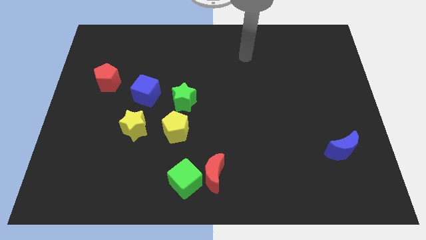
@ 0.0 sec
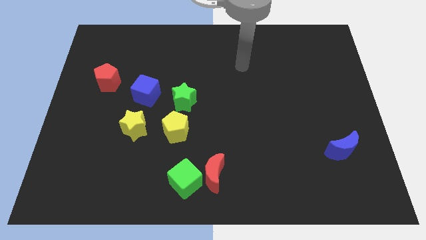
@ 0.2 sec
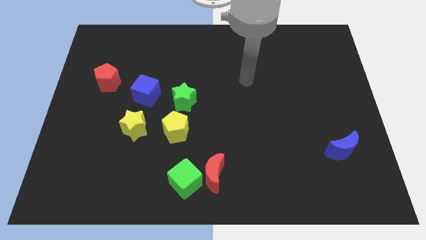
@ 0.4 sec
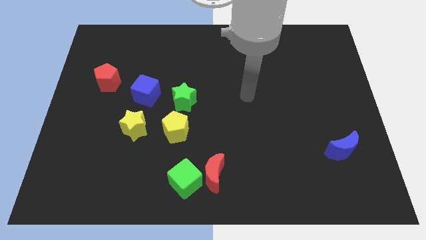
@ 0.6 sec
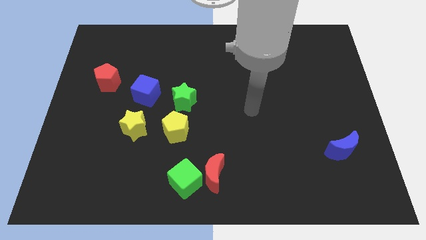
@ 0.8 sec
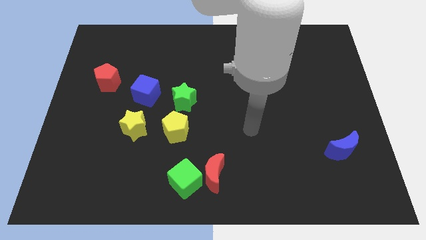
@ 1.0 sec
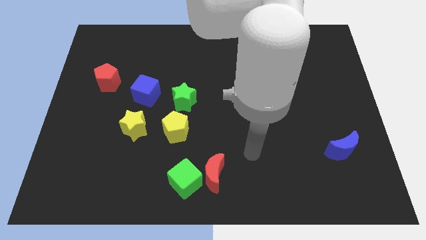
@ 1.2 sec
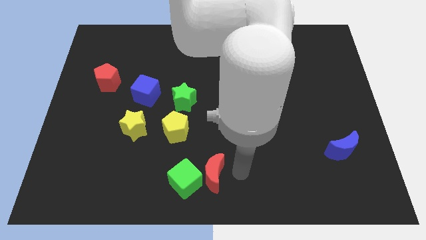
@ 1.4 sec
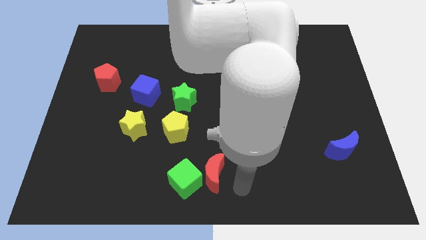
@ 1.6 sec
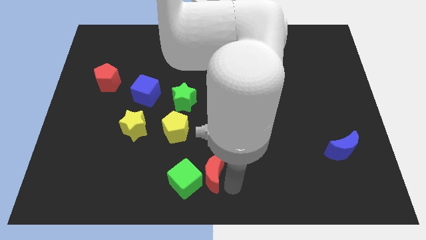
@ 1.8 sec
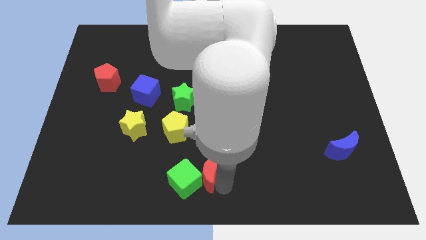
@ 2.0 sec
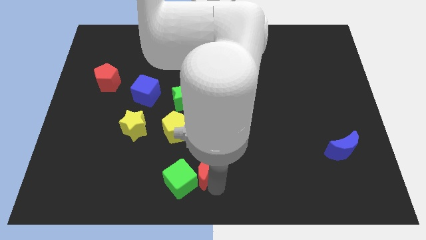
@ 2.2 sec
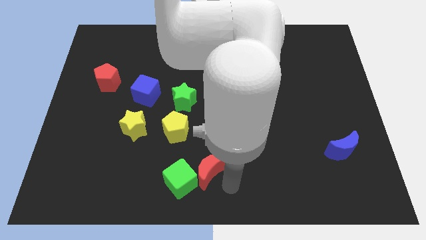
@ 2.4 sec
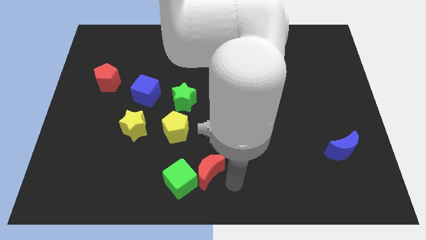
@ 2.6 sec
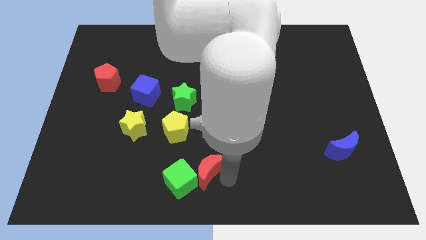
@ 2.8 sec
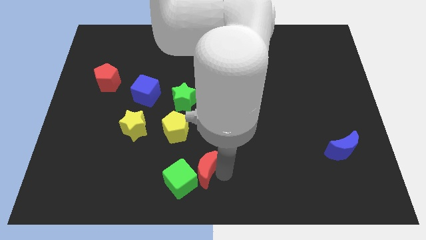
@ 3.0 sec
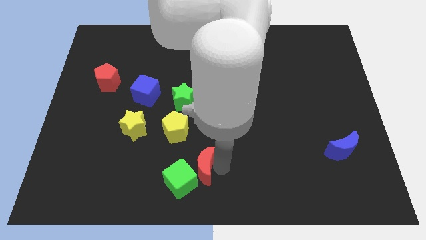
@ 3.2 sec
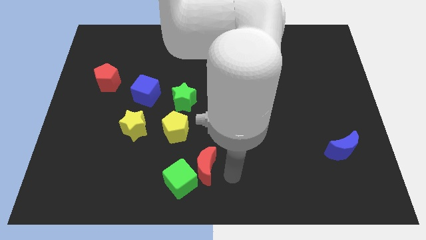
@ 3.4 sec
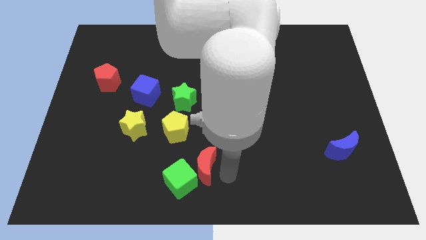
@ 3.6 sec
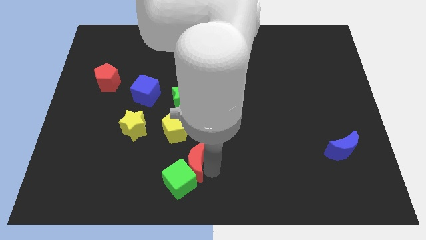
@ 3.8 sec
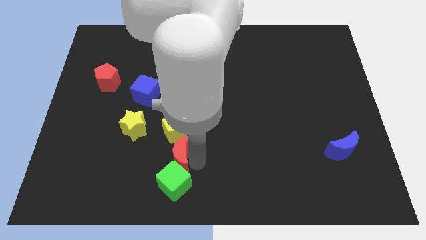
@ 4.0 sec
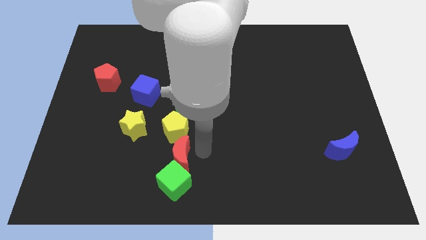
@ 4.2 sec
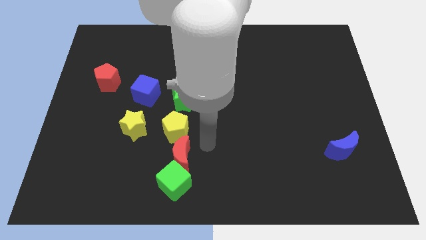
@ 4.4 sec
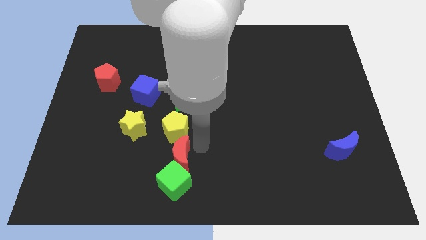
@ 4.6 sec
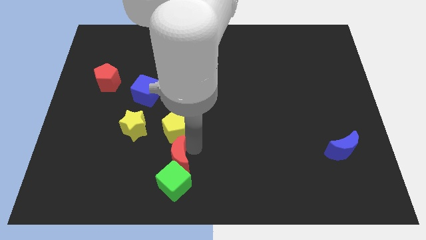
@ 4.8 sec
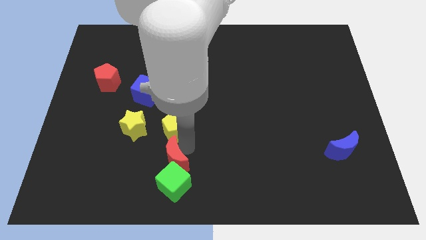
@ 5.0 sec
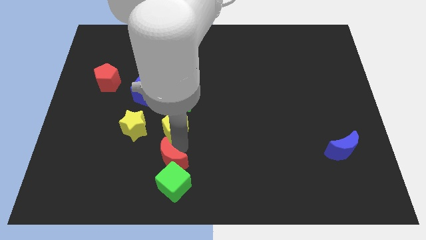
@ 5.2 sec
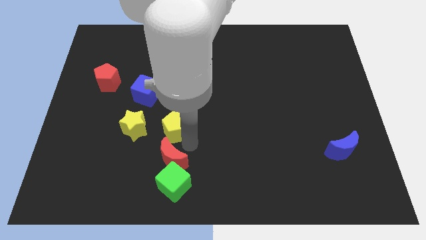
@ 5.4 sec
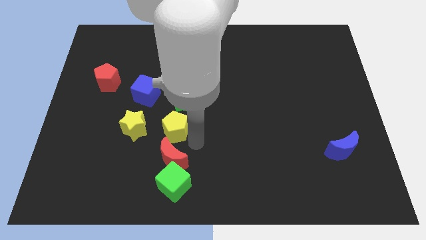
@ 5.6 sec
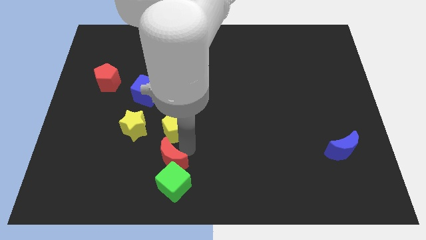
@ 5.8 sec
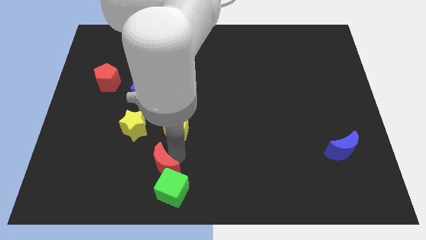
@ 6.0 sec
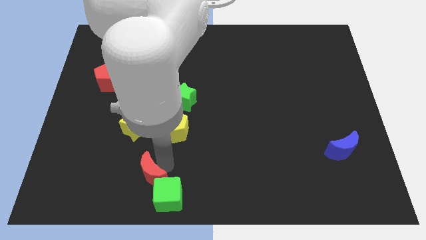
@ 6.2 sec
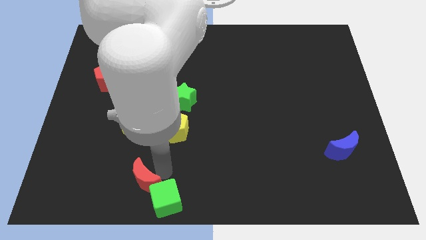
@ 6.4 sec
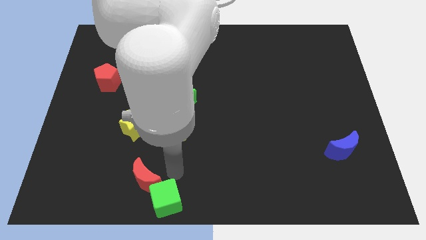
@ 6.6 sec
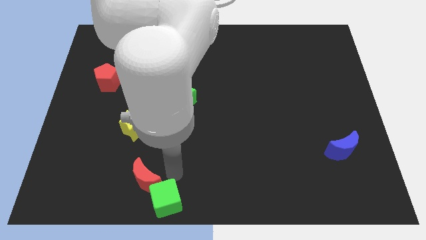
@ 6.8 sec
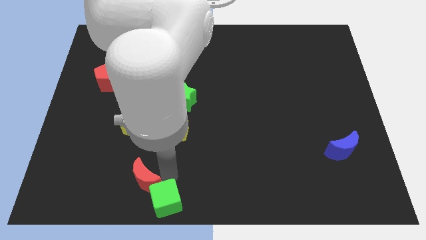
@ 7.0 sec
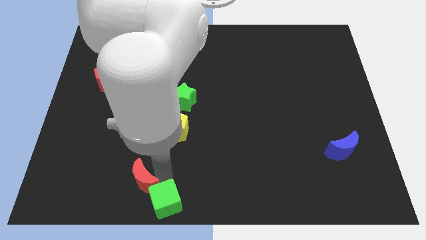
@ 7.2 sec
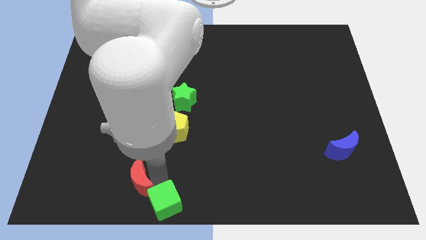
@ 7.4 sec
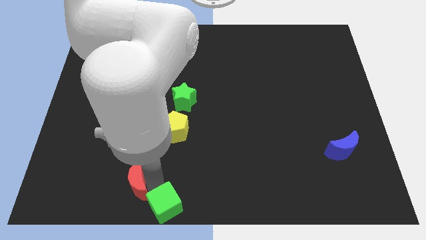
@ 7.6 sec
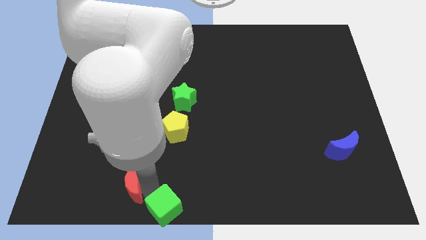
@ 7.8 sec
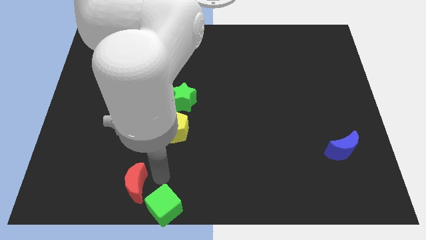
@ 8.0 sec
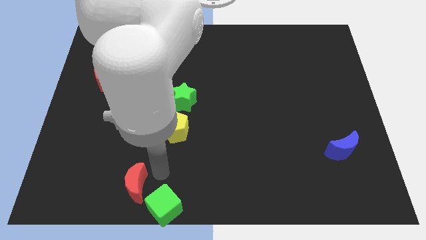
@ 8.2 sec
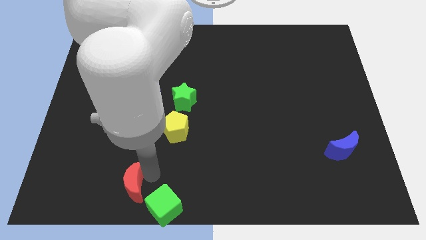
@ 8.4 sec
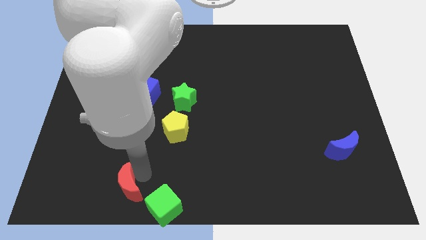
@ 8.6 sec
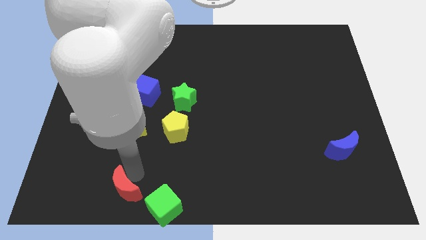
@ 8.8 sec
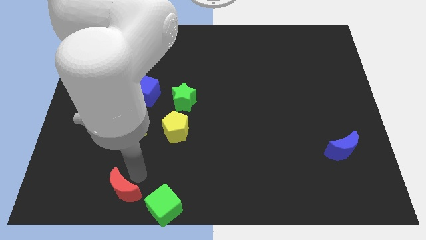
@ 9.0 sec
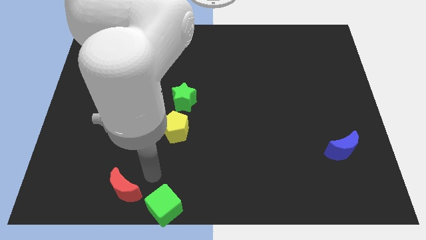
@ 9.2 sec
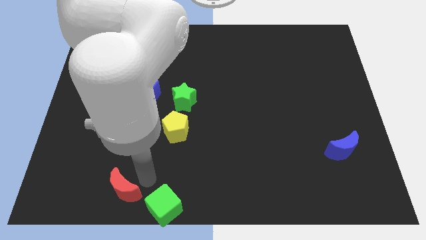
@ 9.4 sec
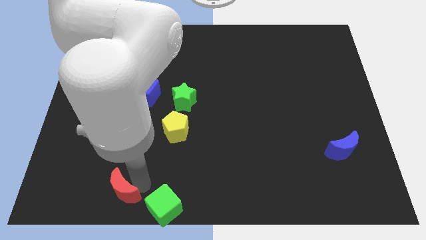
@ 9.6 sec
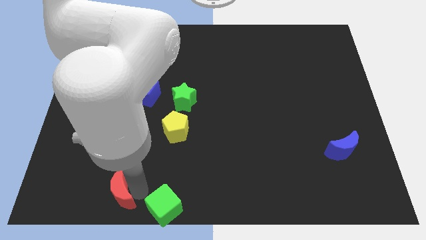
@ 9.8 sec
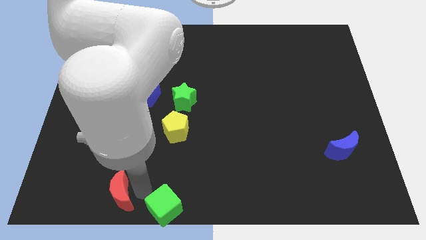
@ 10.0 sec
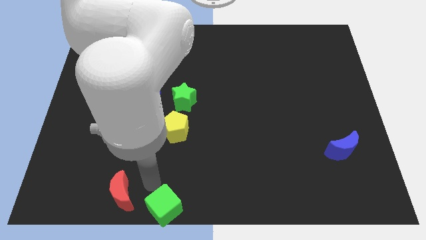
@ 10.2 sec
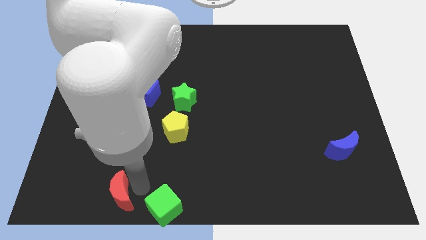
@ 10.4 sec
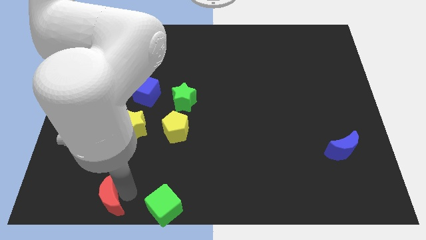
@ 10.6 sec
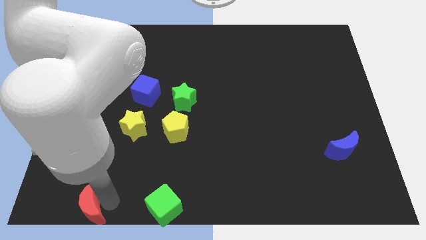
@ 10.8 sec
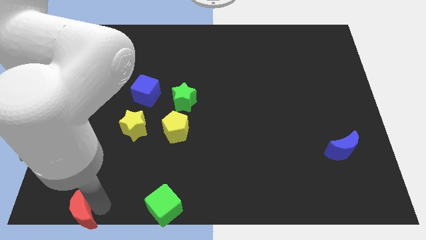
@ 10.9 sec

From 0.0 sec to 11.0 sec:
push the red moon to the bottom left

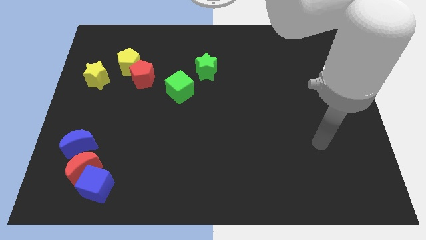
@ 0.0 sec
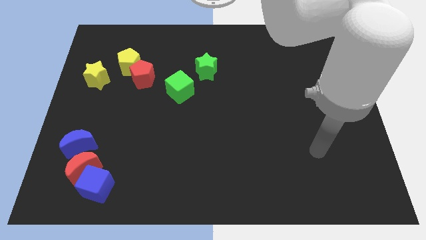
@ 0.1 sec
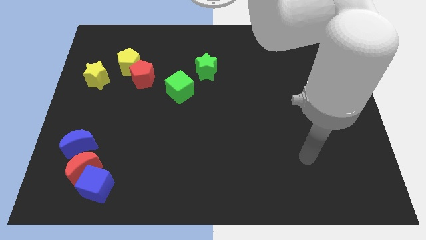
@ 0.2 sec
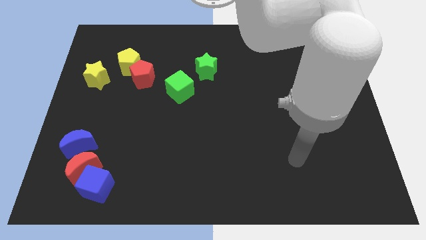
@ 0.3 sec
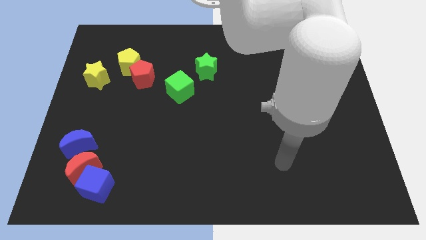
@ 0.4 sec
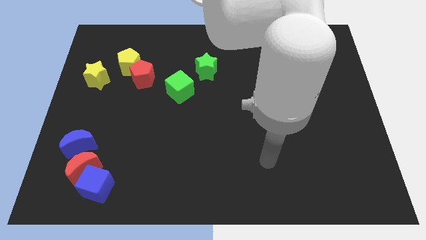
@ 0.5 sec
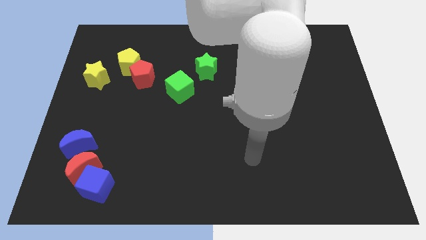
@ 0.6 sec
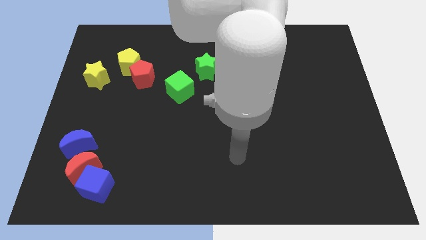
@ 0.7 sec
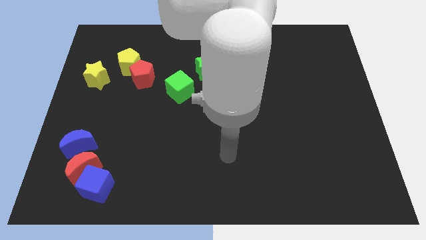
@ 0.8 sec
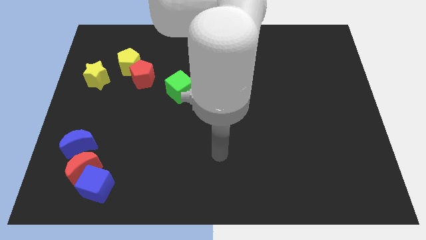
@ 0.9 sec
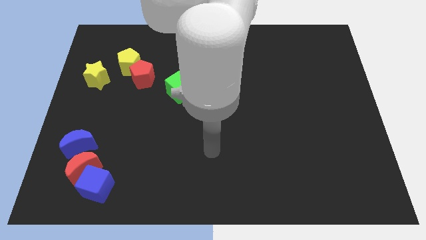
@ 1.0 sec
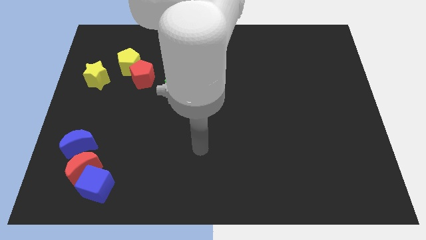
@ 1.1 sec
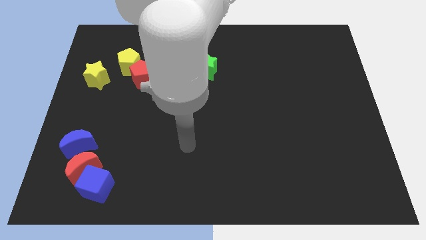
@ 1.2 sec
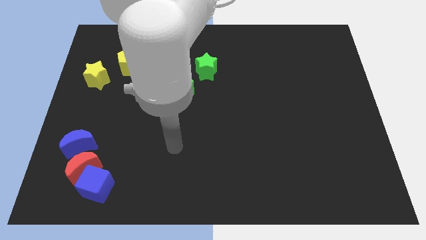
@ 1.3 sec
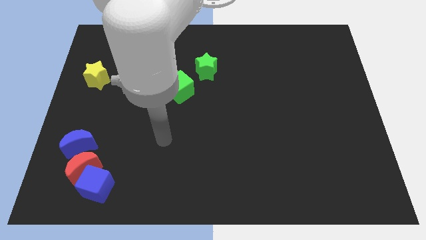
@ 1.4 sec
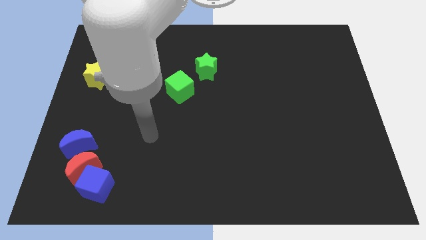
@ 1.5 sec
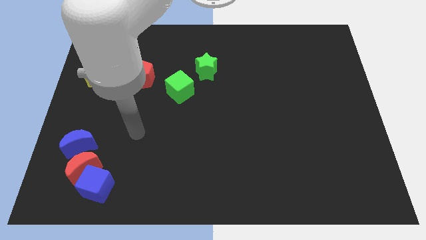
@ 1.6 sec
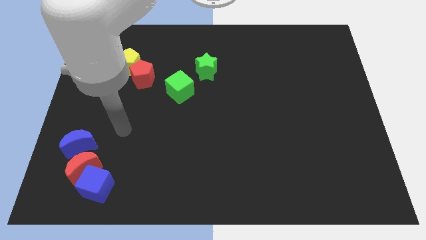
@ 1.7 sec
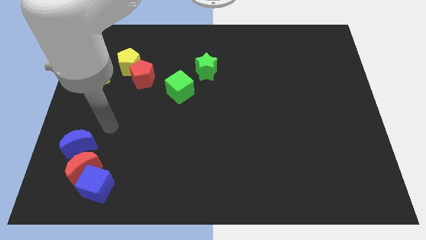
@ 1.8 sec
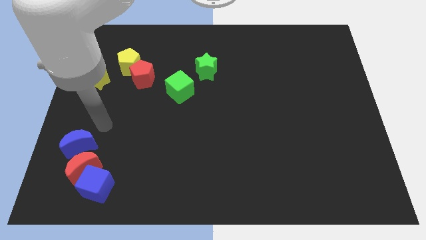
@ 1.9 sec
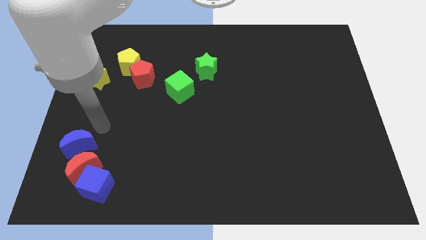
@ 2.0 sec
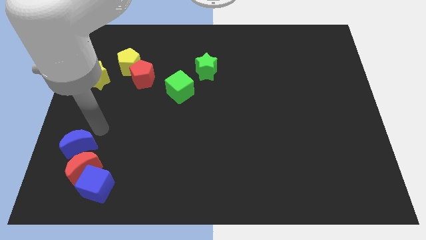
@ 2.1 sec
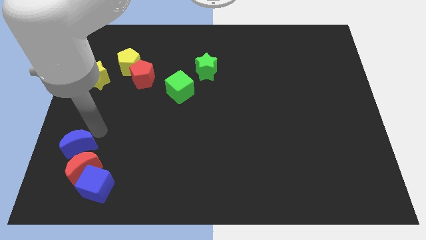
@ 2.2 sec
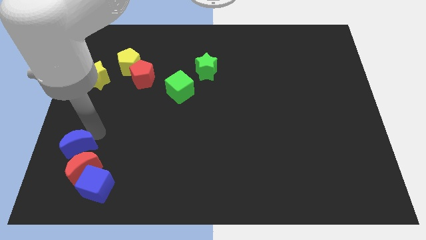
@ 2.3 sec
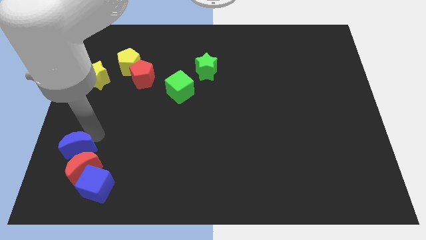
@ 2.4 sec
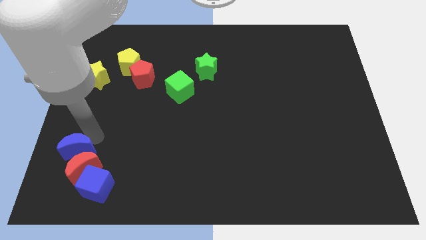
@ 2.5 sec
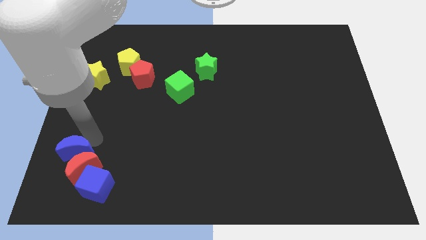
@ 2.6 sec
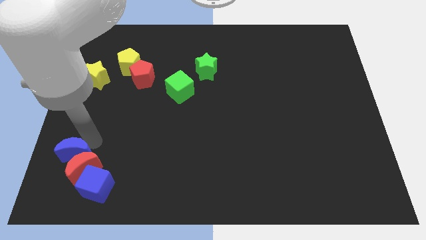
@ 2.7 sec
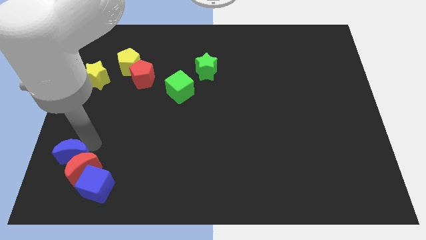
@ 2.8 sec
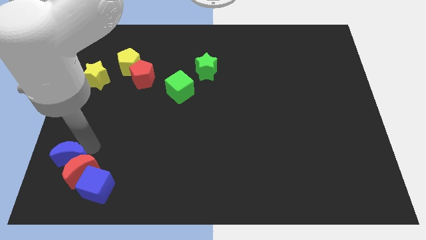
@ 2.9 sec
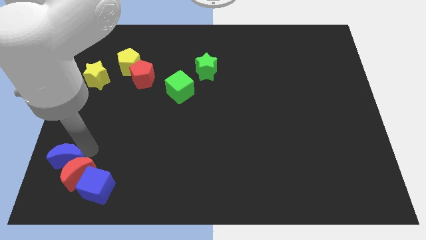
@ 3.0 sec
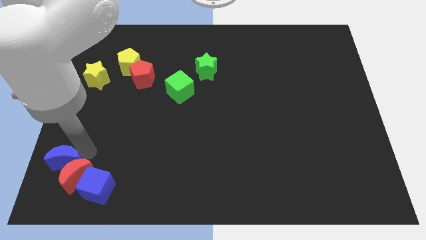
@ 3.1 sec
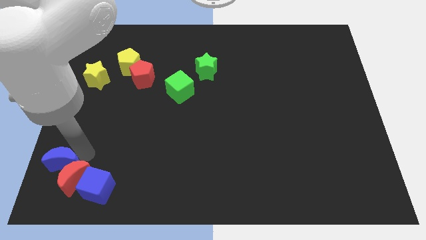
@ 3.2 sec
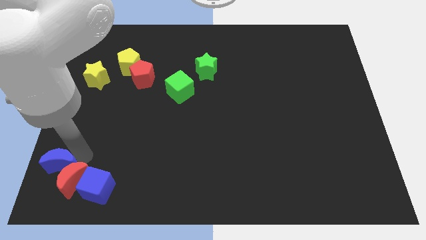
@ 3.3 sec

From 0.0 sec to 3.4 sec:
put the blue moon to the lower left corner
